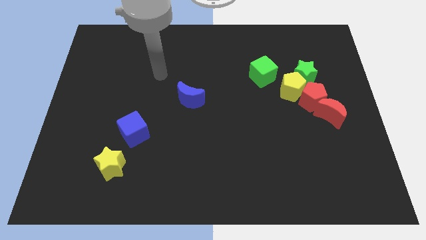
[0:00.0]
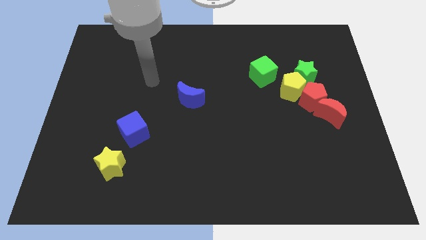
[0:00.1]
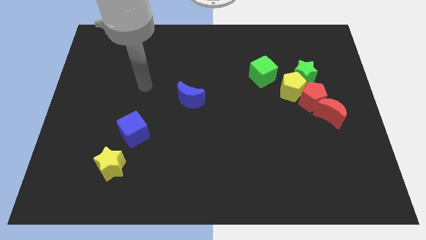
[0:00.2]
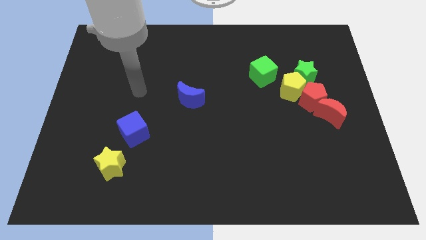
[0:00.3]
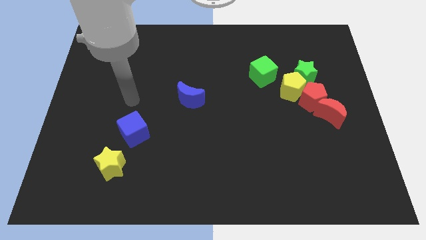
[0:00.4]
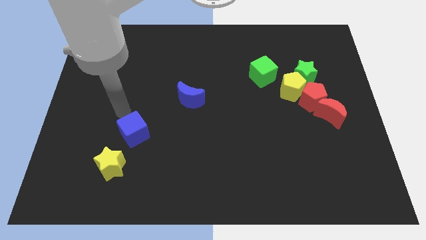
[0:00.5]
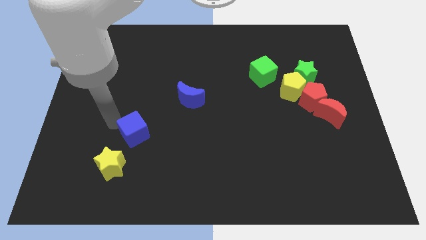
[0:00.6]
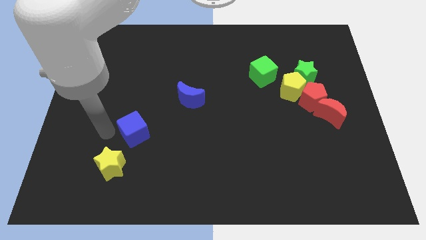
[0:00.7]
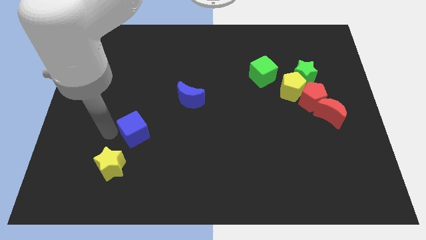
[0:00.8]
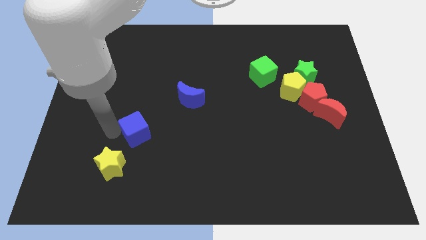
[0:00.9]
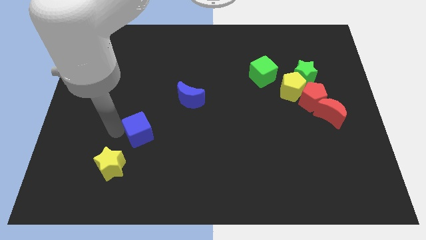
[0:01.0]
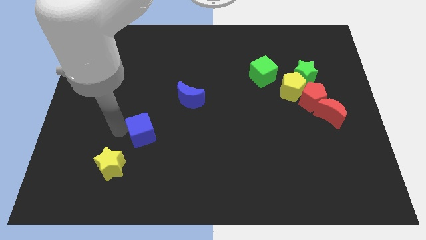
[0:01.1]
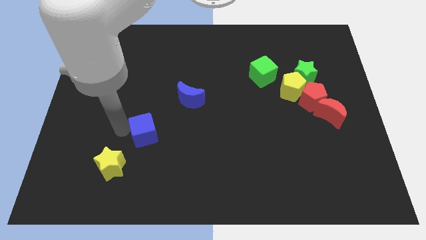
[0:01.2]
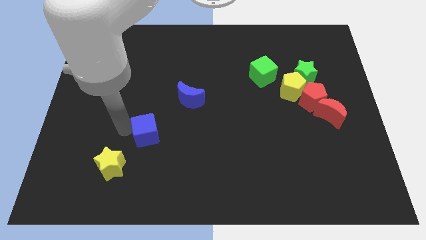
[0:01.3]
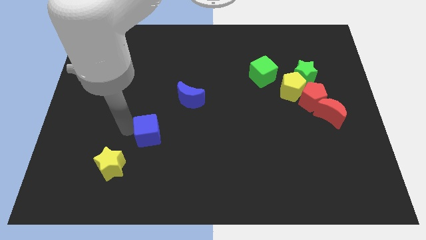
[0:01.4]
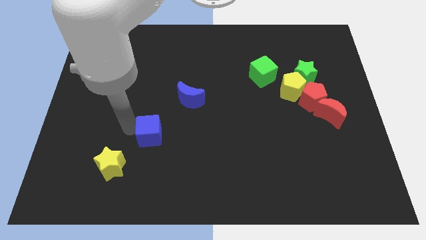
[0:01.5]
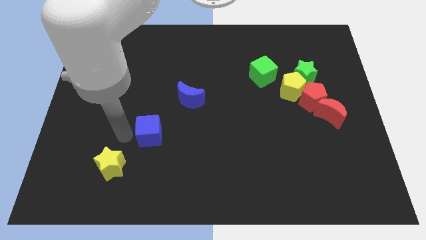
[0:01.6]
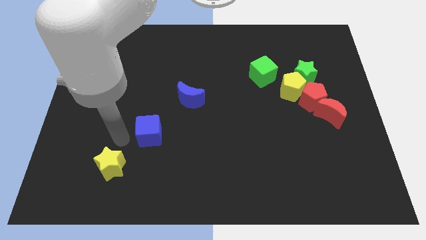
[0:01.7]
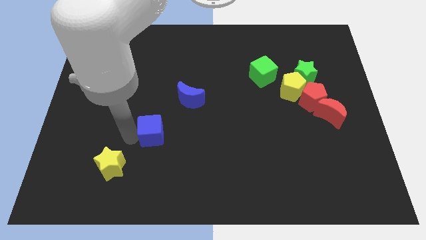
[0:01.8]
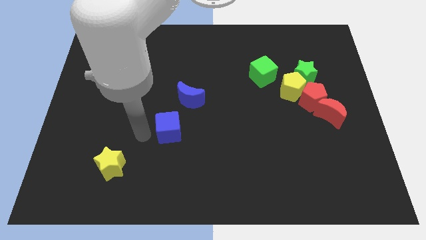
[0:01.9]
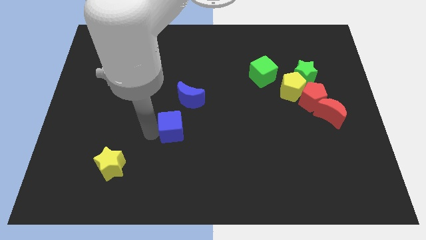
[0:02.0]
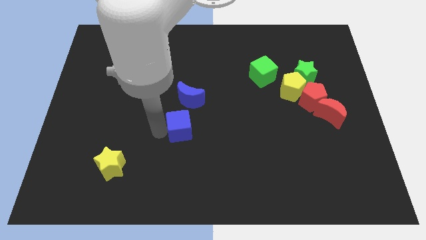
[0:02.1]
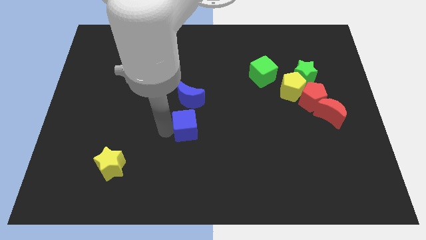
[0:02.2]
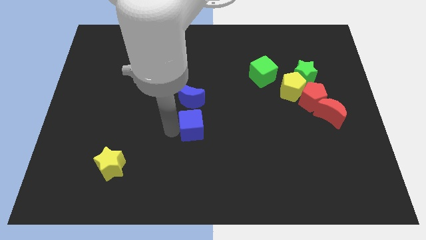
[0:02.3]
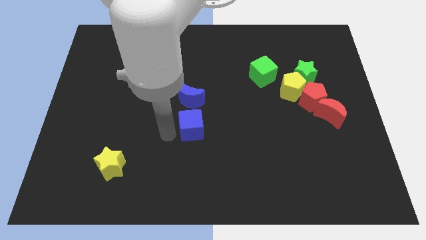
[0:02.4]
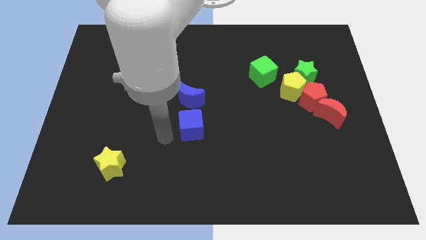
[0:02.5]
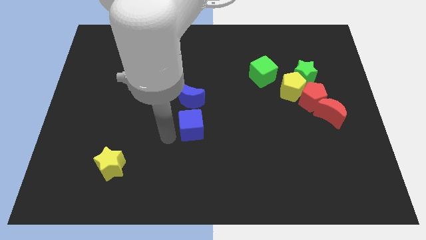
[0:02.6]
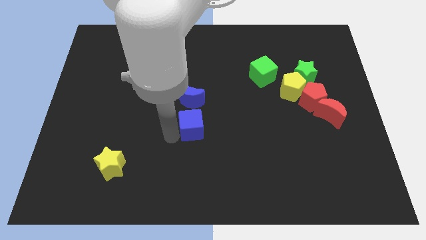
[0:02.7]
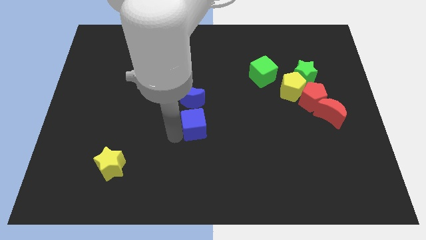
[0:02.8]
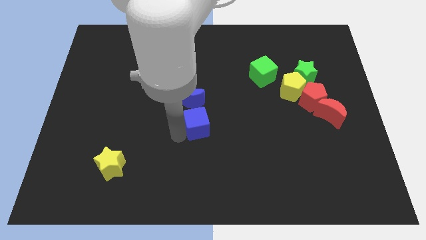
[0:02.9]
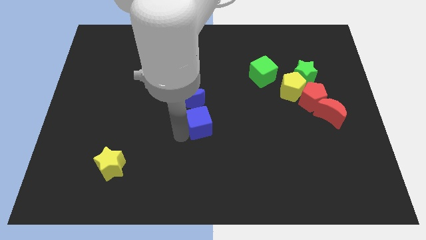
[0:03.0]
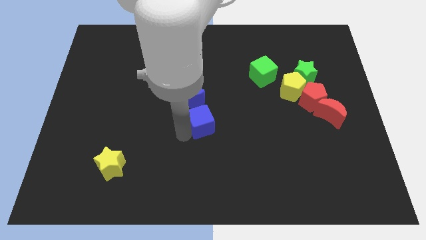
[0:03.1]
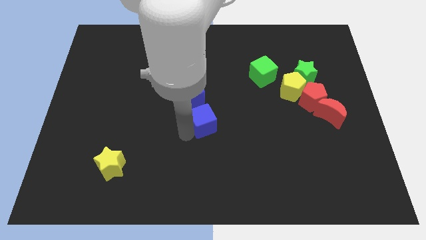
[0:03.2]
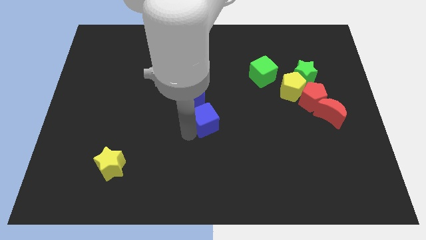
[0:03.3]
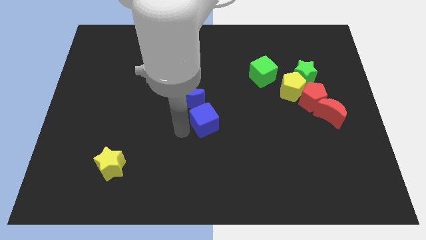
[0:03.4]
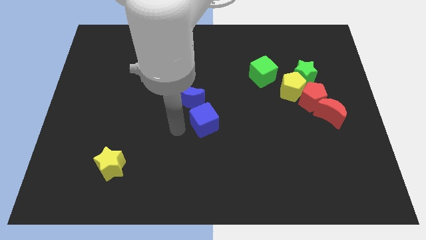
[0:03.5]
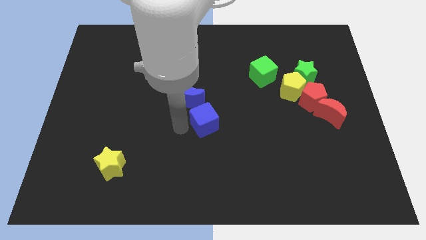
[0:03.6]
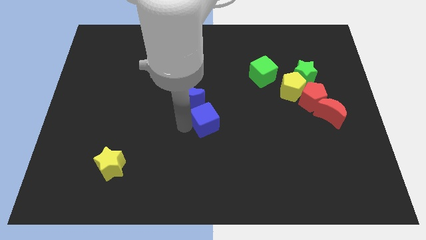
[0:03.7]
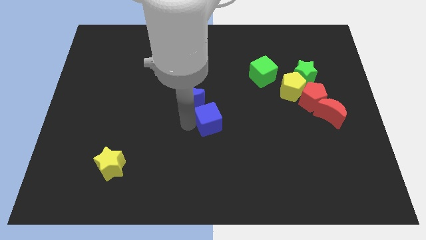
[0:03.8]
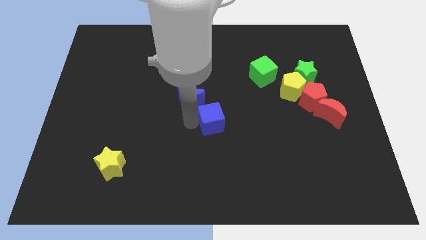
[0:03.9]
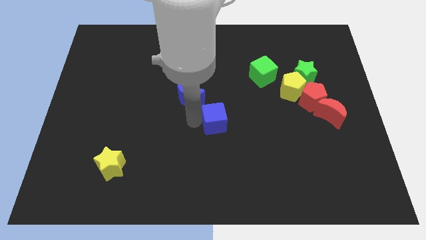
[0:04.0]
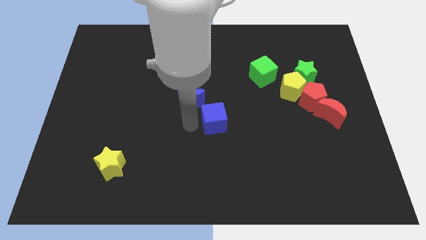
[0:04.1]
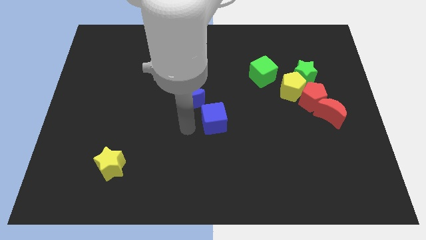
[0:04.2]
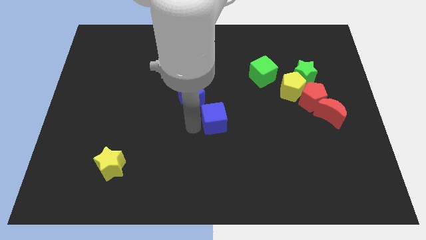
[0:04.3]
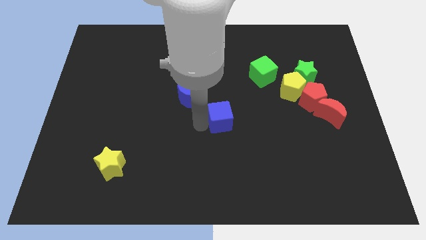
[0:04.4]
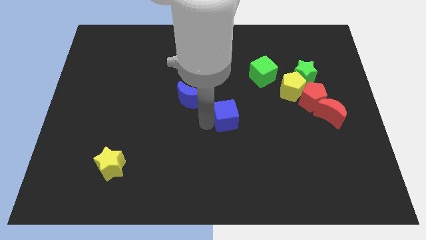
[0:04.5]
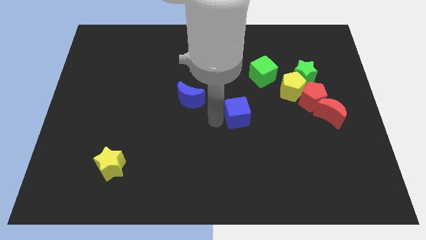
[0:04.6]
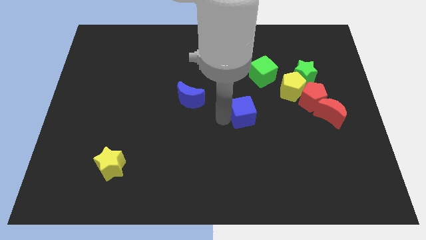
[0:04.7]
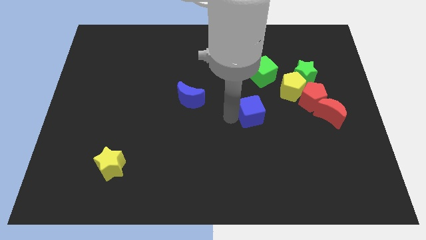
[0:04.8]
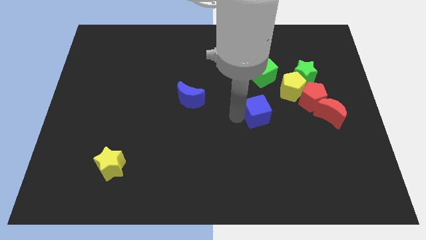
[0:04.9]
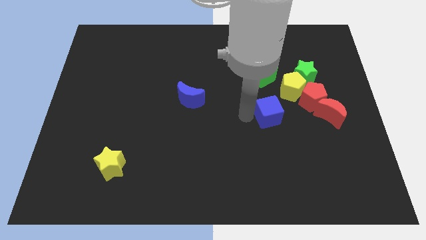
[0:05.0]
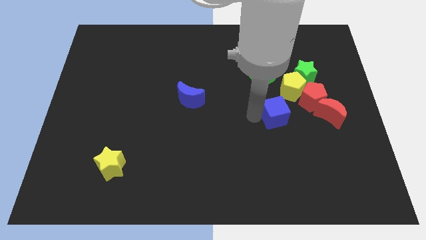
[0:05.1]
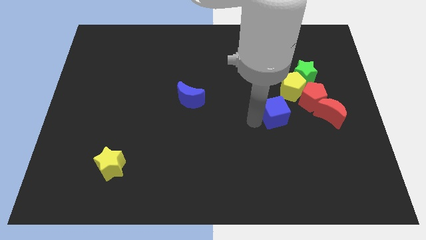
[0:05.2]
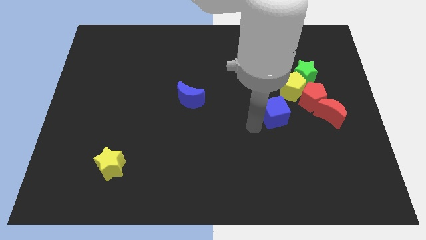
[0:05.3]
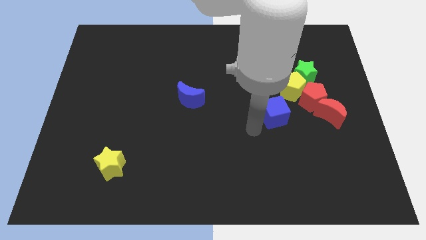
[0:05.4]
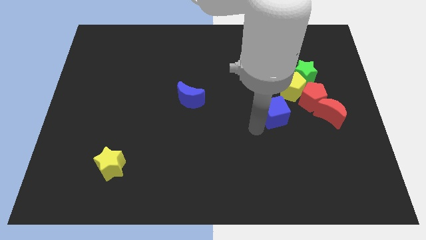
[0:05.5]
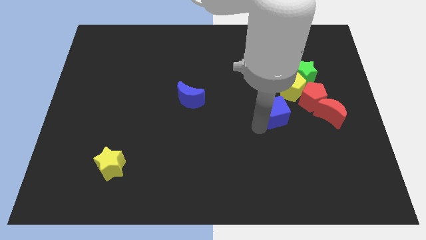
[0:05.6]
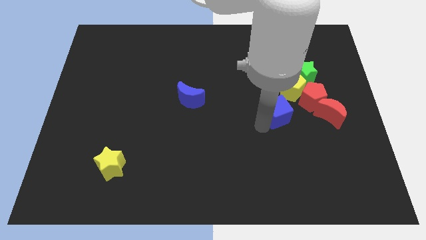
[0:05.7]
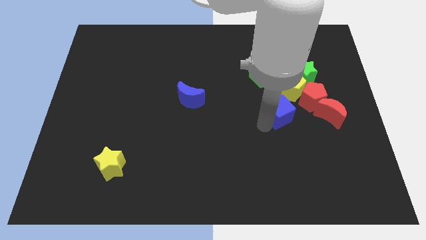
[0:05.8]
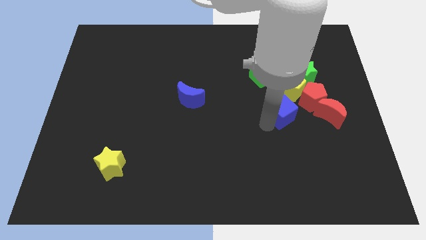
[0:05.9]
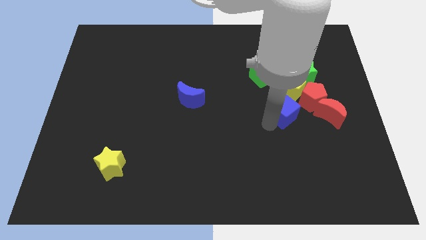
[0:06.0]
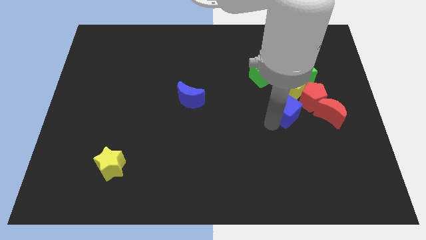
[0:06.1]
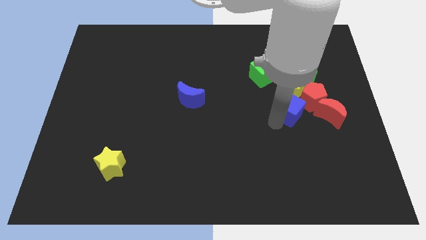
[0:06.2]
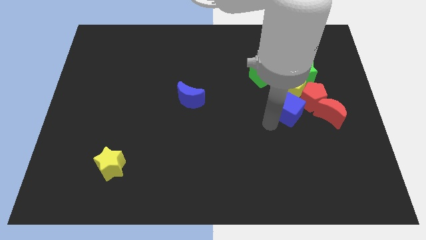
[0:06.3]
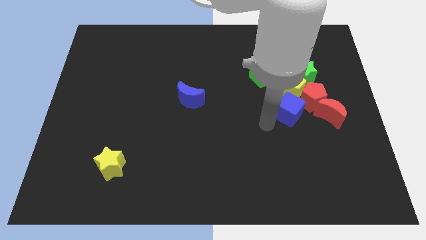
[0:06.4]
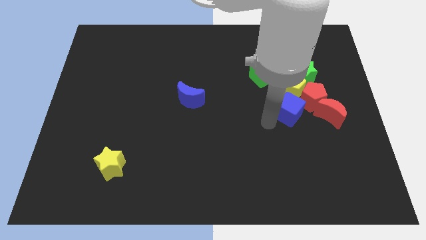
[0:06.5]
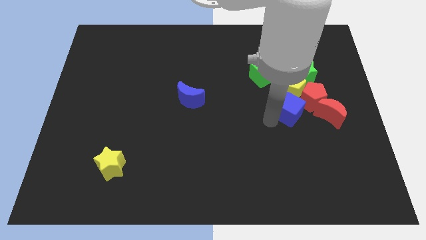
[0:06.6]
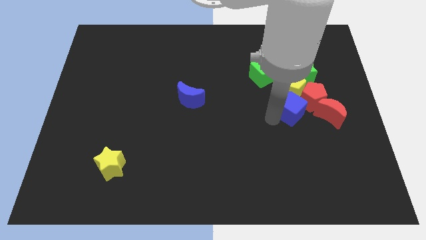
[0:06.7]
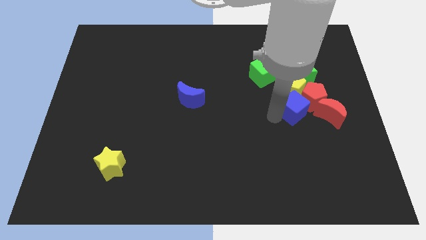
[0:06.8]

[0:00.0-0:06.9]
move the blue cube to the red pentagon
